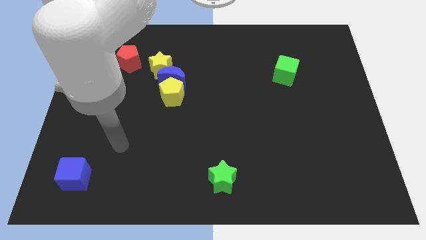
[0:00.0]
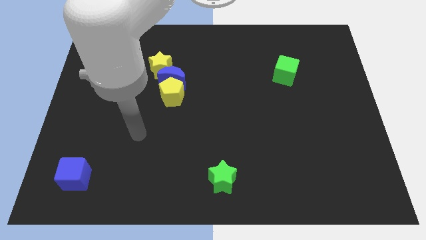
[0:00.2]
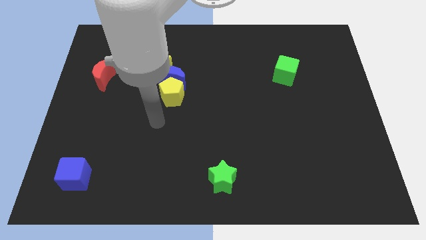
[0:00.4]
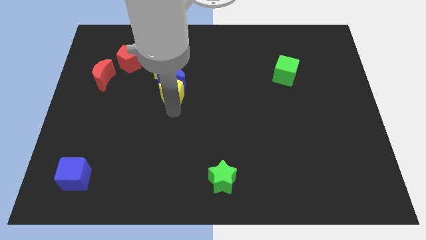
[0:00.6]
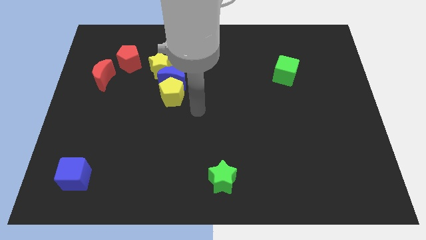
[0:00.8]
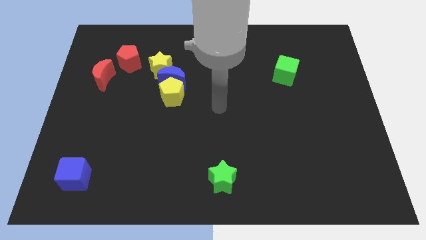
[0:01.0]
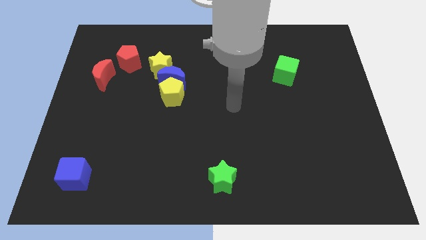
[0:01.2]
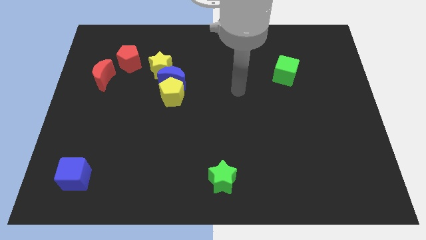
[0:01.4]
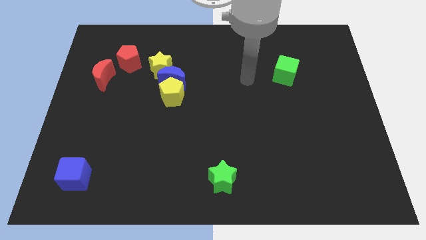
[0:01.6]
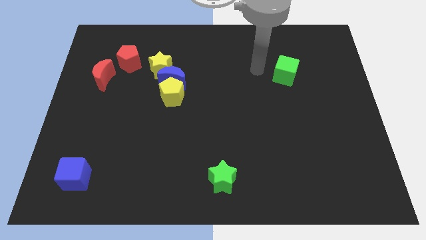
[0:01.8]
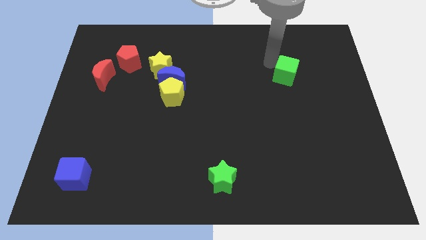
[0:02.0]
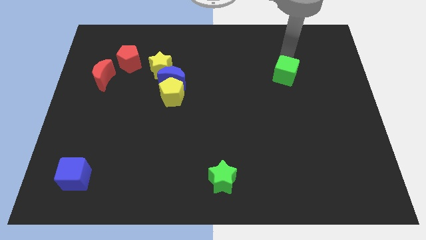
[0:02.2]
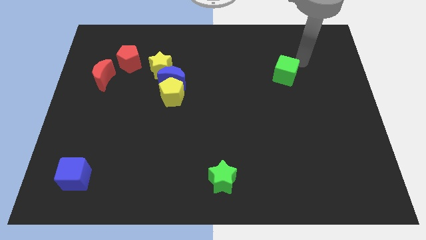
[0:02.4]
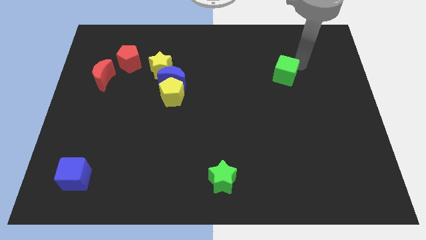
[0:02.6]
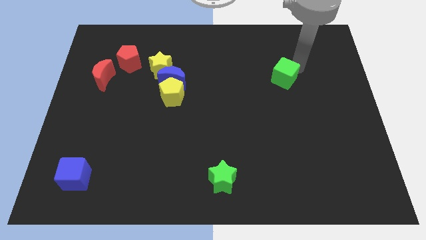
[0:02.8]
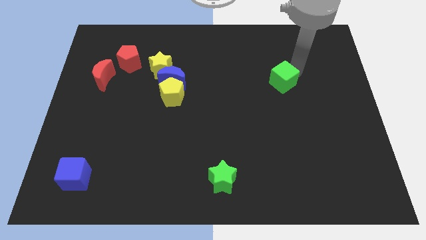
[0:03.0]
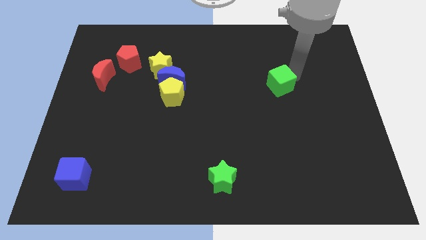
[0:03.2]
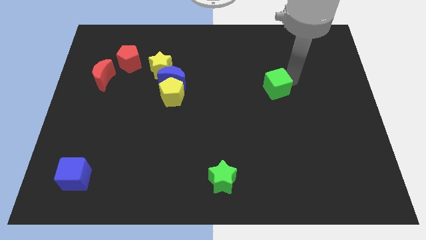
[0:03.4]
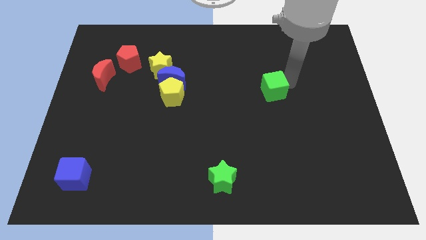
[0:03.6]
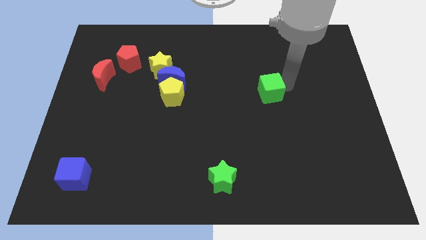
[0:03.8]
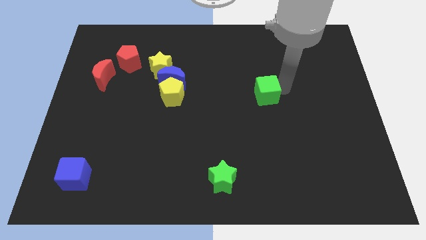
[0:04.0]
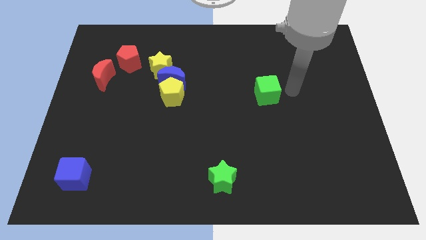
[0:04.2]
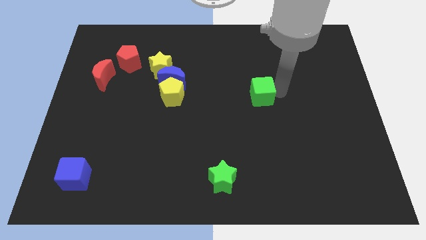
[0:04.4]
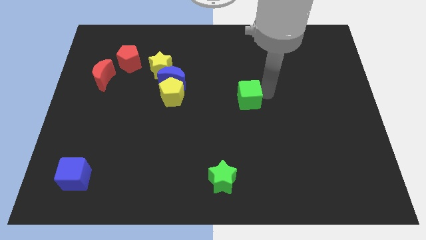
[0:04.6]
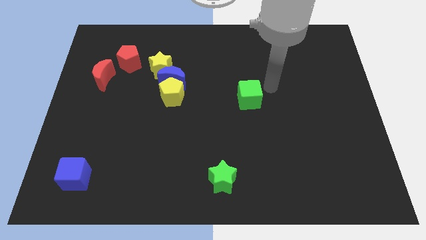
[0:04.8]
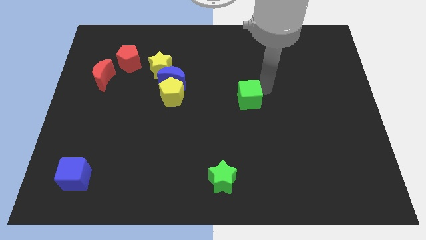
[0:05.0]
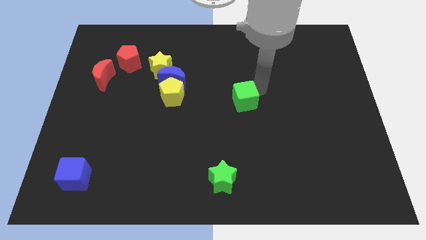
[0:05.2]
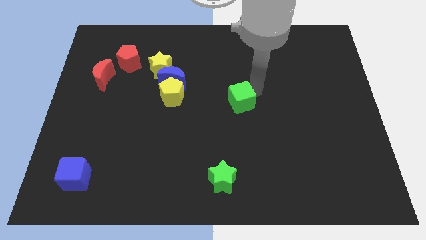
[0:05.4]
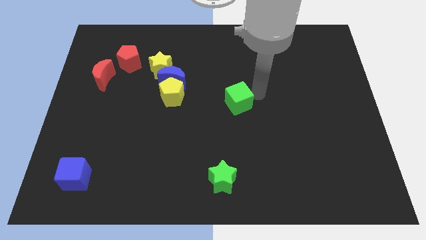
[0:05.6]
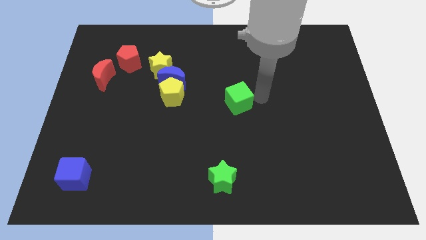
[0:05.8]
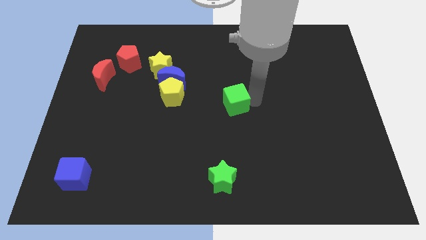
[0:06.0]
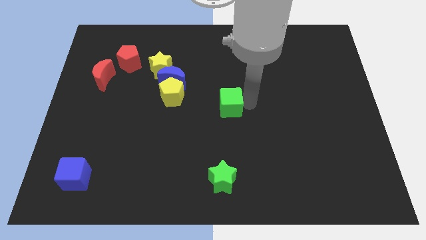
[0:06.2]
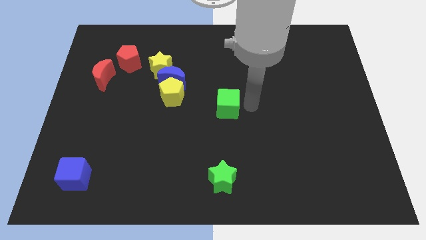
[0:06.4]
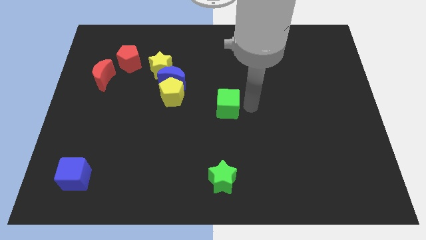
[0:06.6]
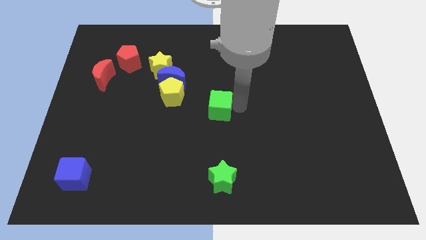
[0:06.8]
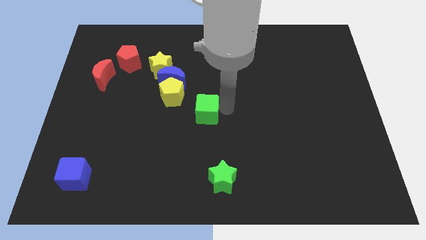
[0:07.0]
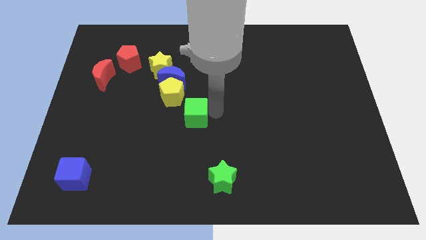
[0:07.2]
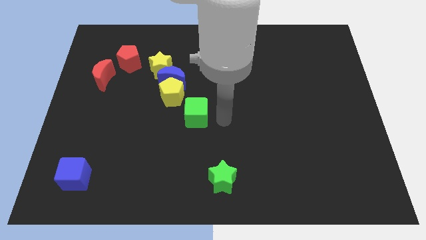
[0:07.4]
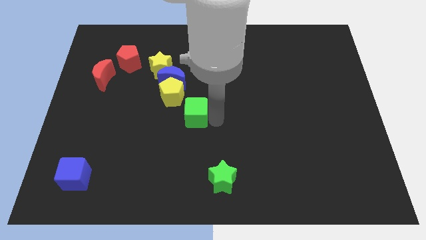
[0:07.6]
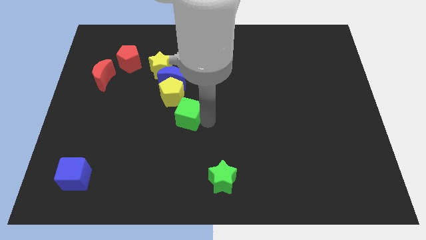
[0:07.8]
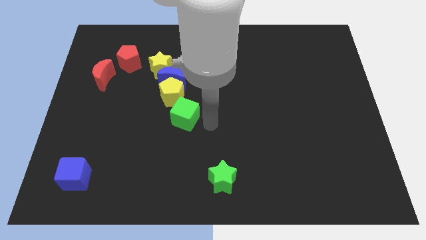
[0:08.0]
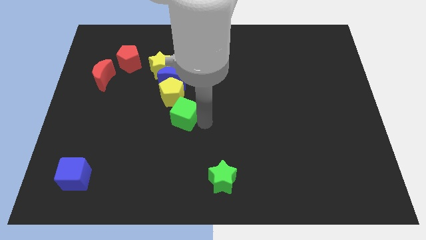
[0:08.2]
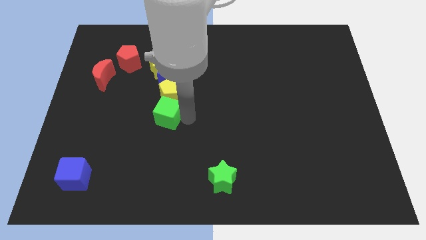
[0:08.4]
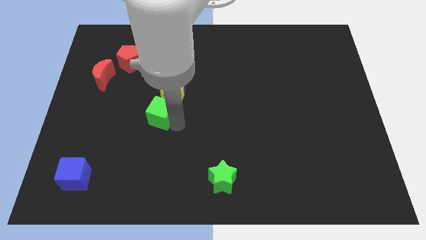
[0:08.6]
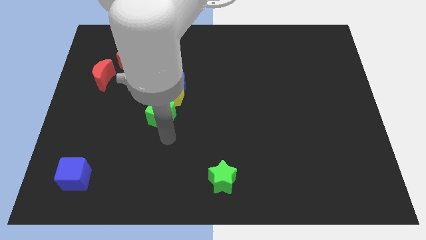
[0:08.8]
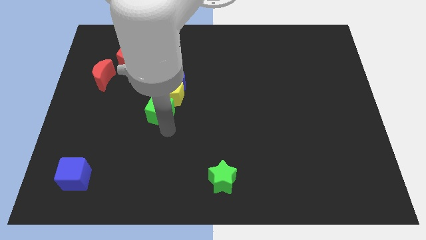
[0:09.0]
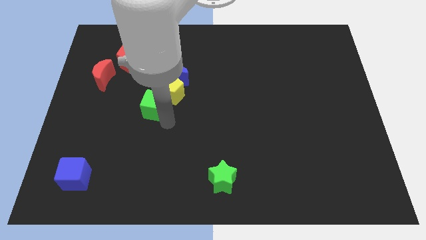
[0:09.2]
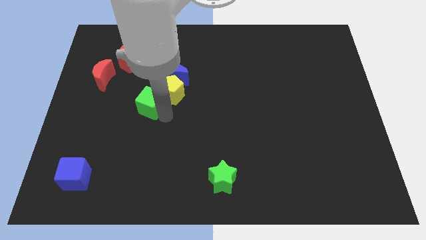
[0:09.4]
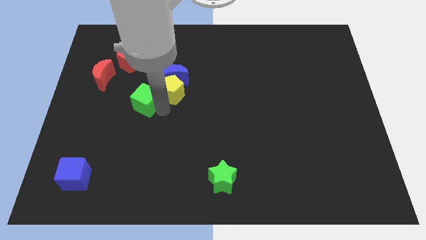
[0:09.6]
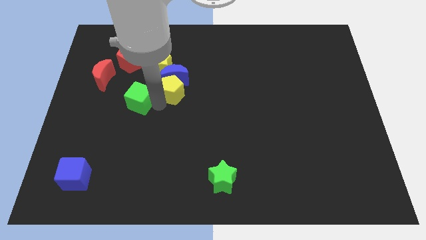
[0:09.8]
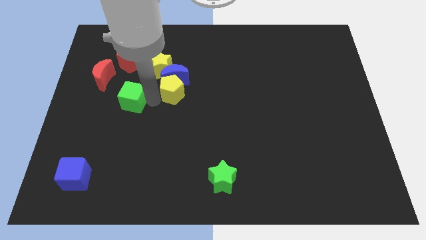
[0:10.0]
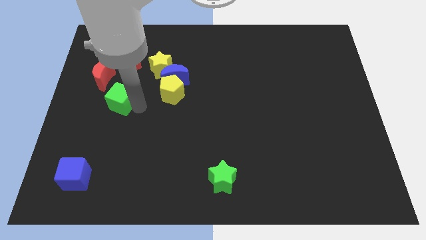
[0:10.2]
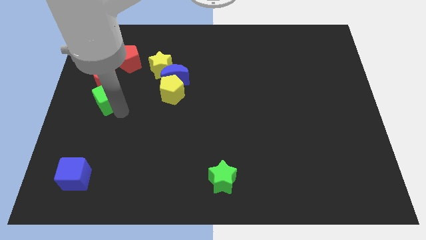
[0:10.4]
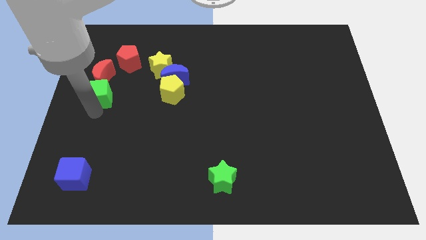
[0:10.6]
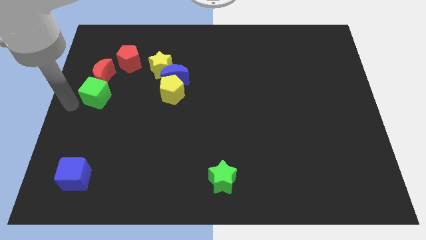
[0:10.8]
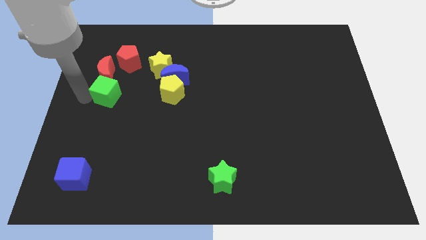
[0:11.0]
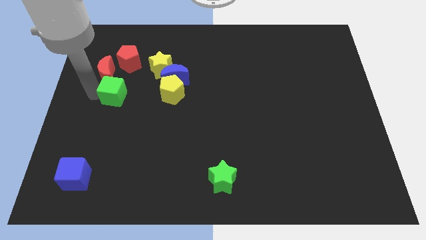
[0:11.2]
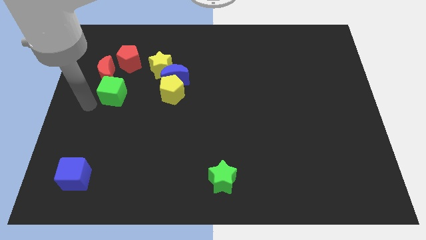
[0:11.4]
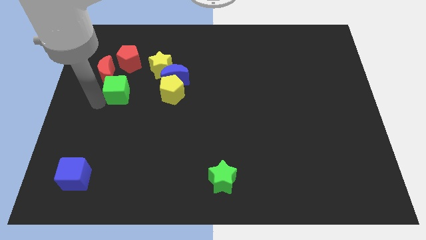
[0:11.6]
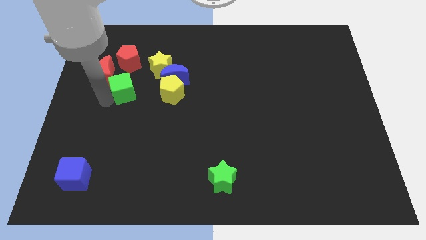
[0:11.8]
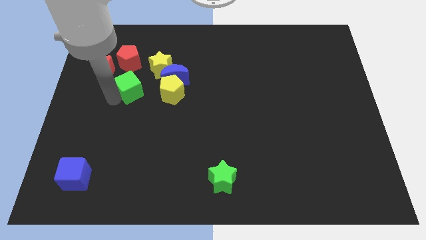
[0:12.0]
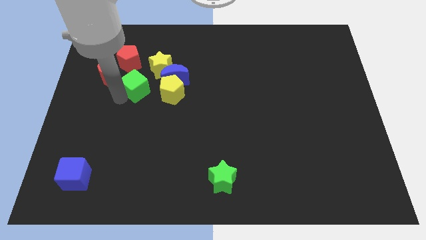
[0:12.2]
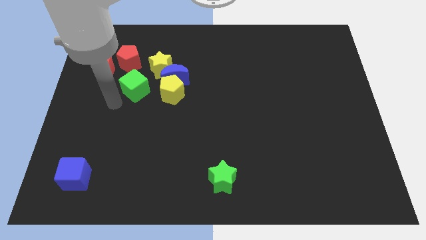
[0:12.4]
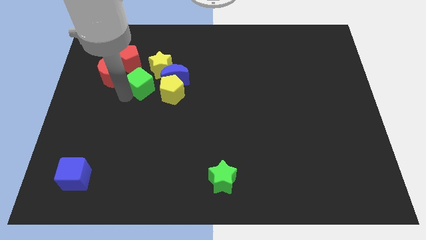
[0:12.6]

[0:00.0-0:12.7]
put the green cube to the top left of the yellow pentagon
